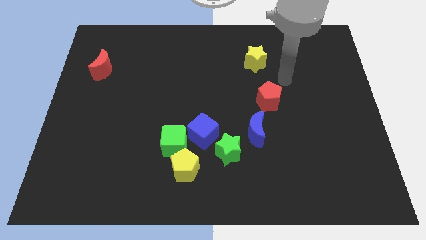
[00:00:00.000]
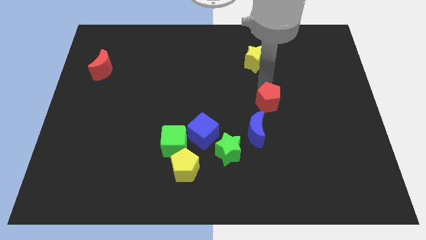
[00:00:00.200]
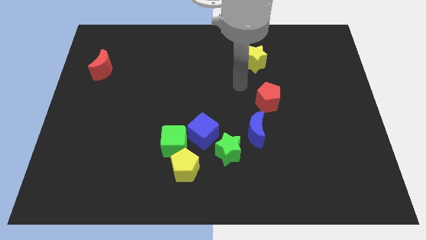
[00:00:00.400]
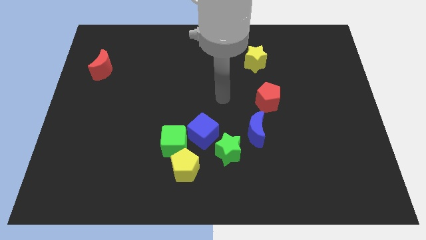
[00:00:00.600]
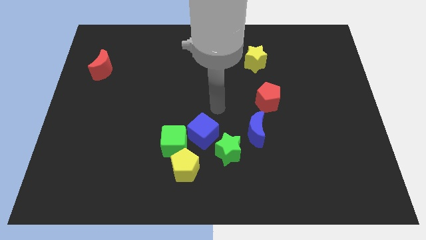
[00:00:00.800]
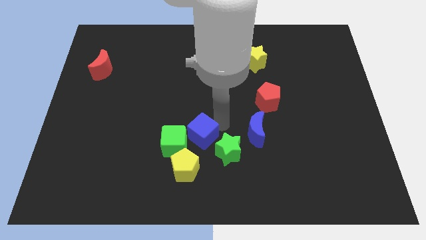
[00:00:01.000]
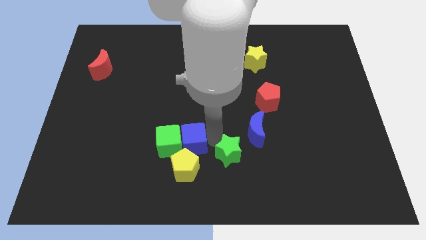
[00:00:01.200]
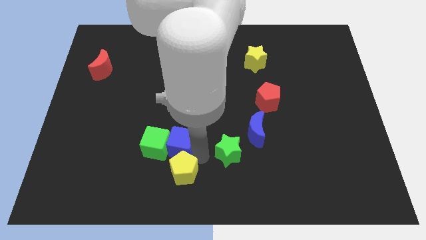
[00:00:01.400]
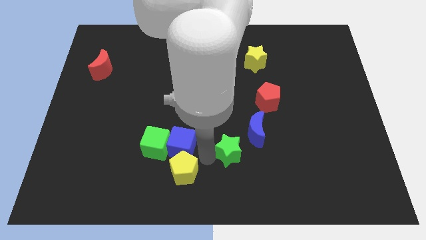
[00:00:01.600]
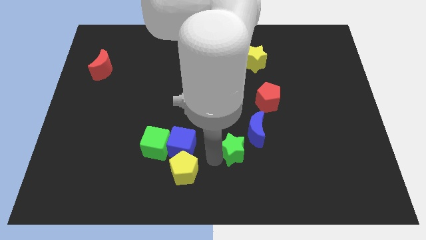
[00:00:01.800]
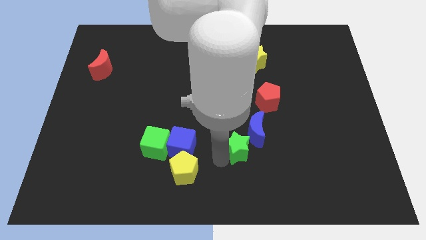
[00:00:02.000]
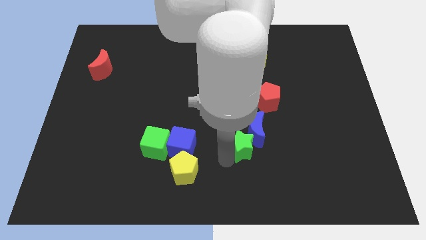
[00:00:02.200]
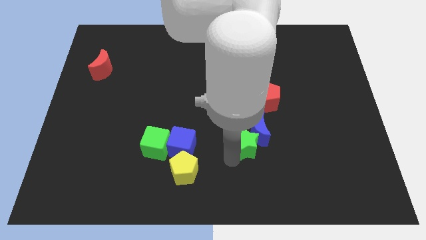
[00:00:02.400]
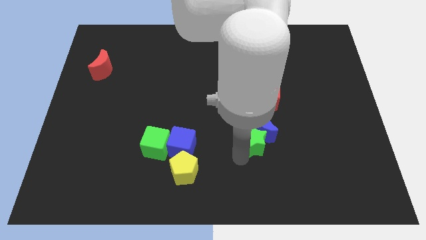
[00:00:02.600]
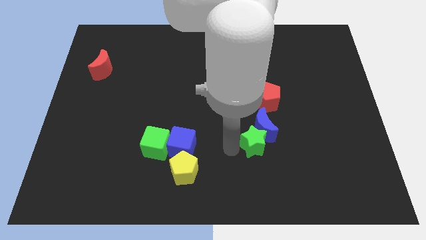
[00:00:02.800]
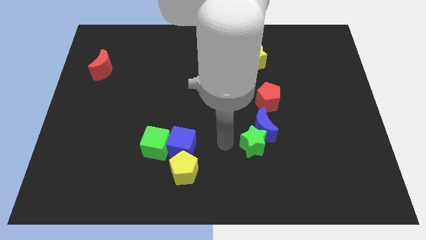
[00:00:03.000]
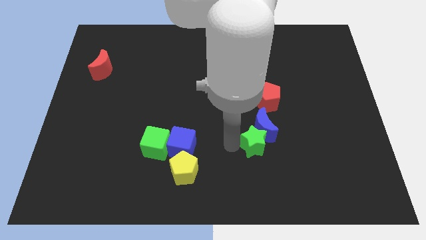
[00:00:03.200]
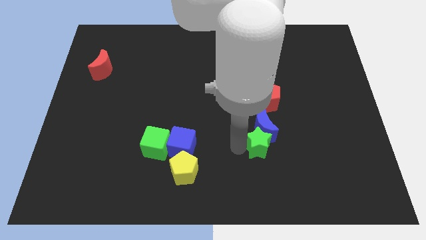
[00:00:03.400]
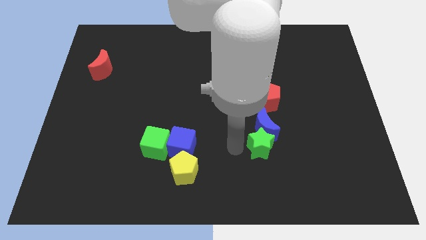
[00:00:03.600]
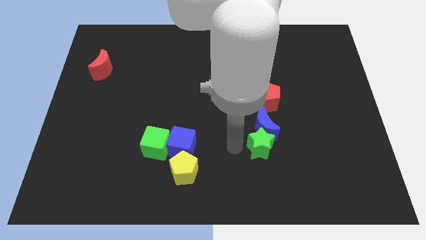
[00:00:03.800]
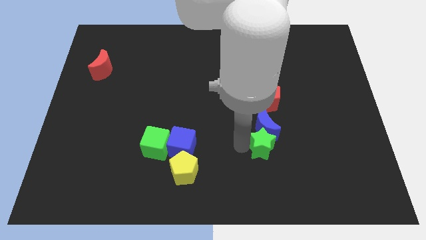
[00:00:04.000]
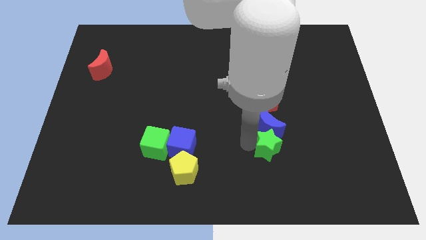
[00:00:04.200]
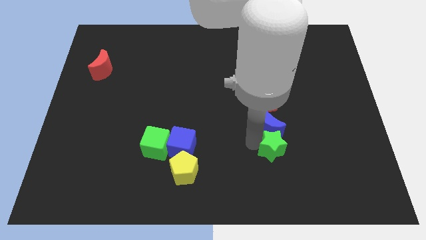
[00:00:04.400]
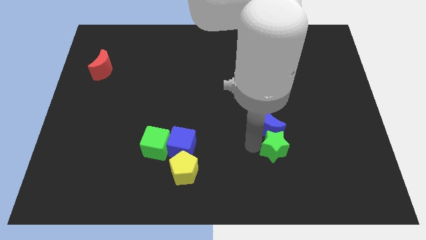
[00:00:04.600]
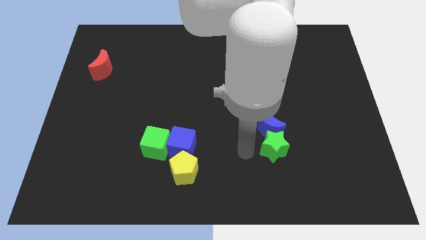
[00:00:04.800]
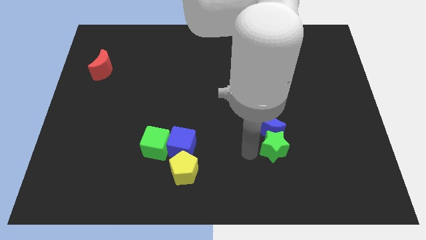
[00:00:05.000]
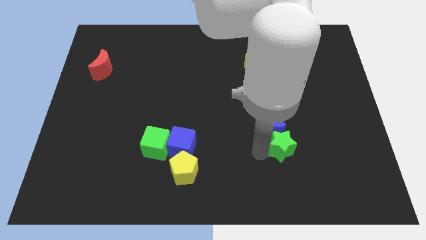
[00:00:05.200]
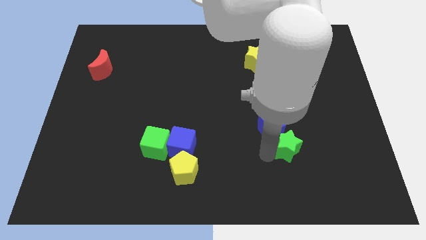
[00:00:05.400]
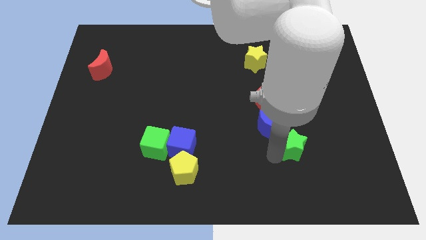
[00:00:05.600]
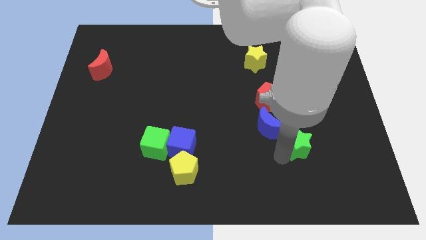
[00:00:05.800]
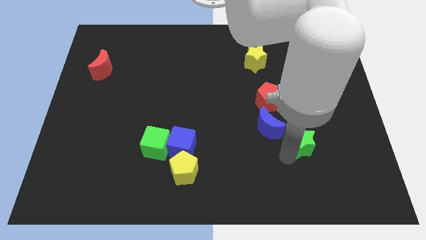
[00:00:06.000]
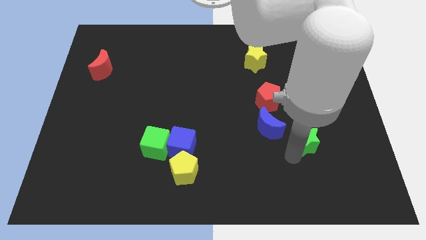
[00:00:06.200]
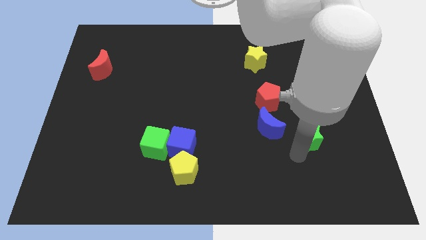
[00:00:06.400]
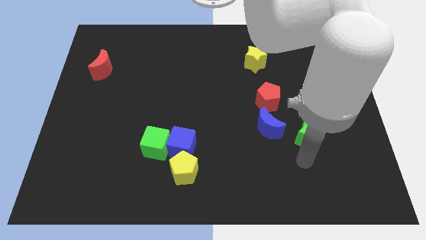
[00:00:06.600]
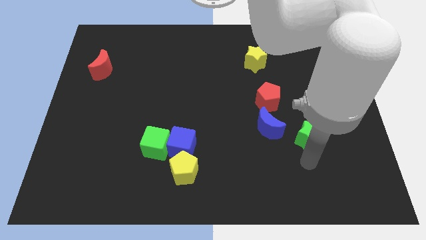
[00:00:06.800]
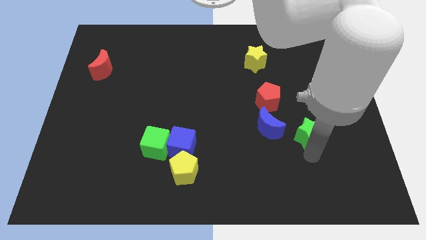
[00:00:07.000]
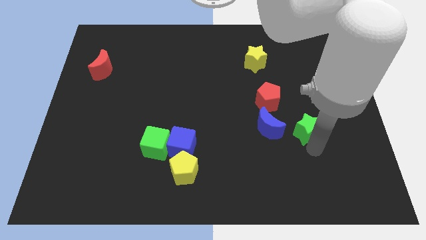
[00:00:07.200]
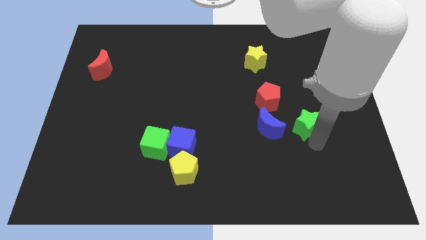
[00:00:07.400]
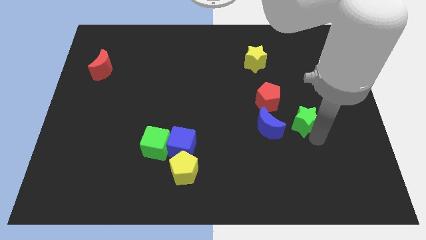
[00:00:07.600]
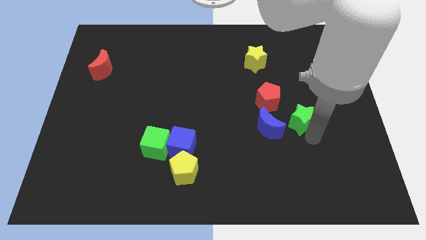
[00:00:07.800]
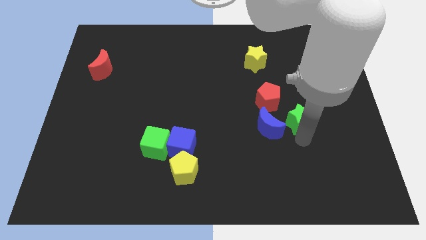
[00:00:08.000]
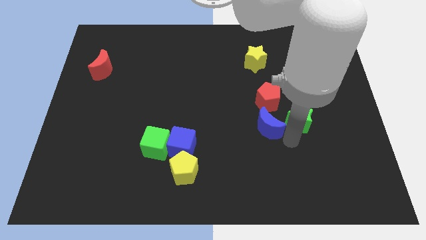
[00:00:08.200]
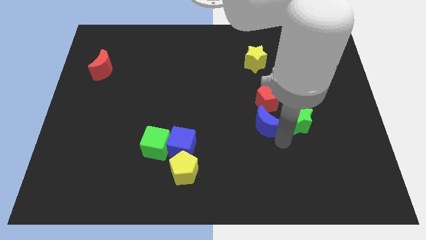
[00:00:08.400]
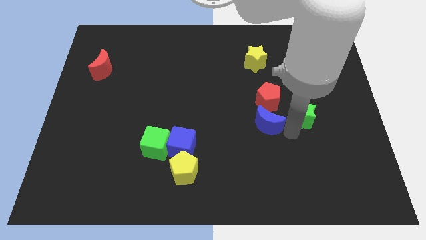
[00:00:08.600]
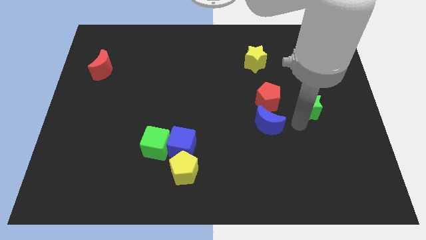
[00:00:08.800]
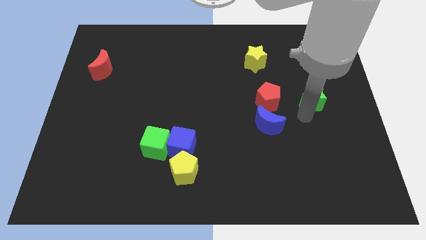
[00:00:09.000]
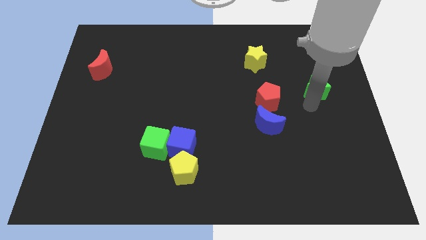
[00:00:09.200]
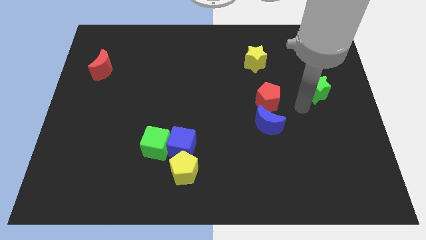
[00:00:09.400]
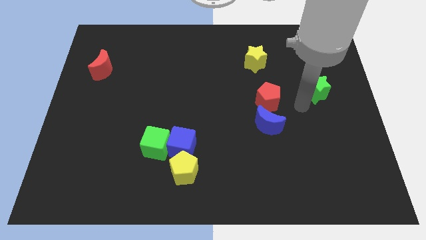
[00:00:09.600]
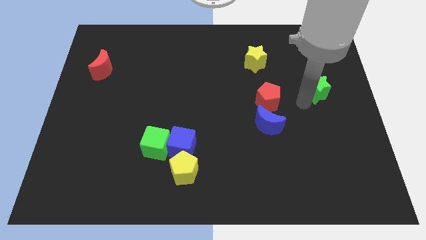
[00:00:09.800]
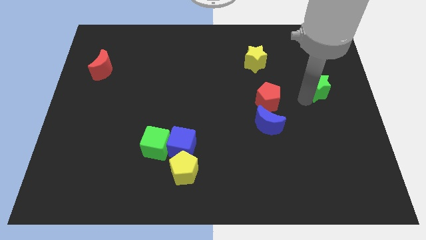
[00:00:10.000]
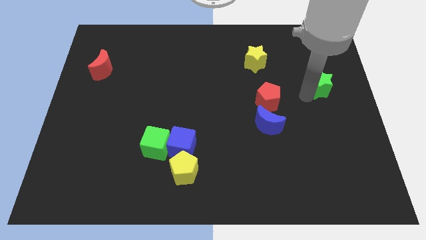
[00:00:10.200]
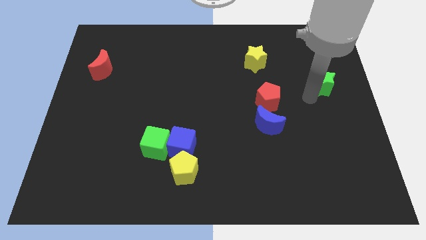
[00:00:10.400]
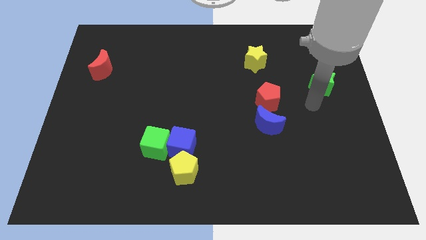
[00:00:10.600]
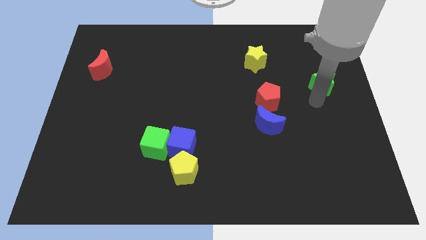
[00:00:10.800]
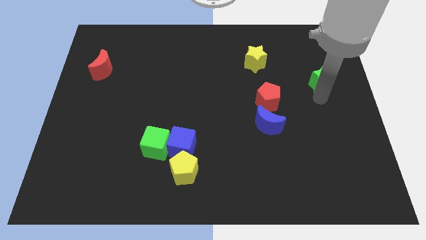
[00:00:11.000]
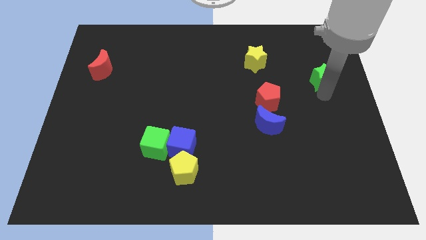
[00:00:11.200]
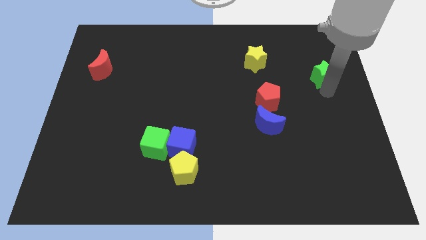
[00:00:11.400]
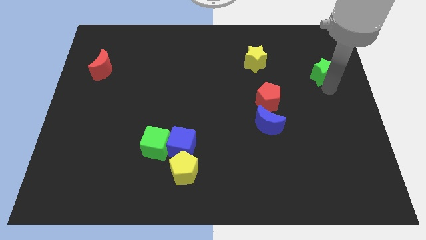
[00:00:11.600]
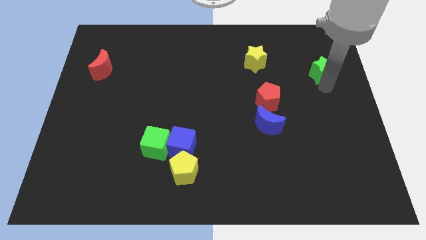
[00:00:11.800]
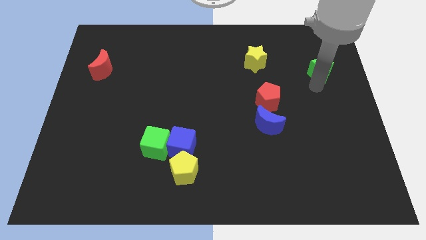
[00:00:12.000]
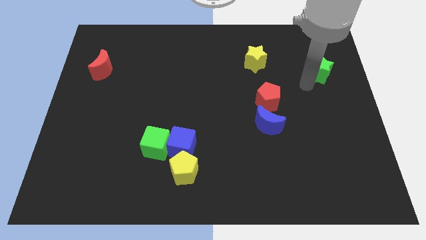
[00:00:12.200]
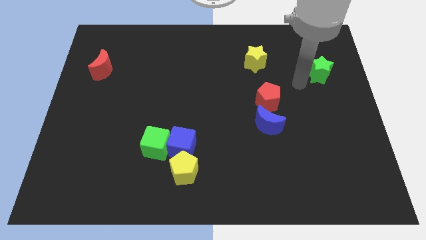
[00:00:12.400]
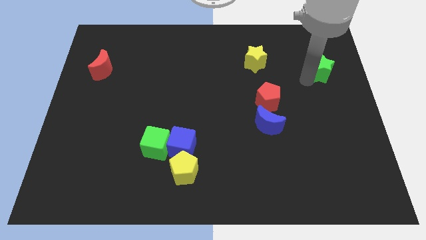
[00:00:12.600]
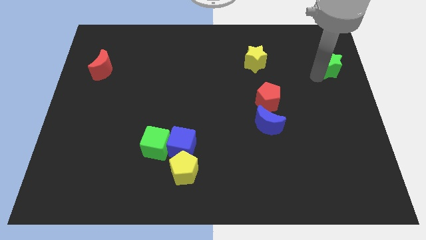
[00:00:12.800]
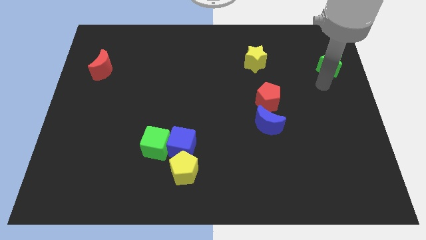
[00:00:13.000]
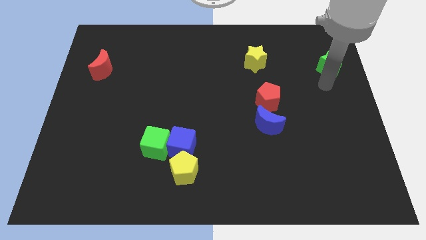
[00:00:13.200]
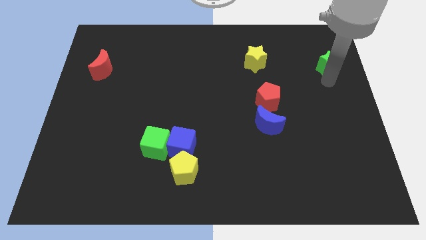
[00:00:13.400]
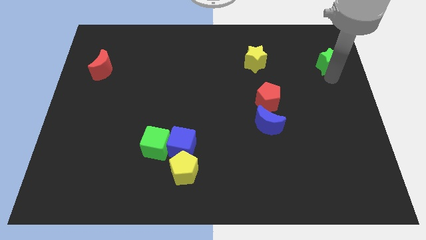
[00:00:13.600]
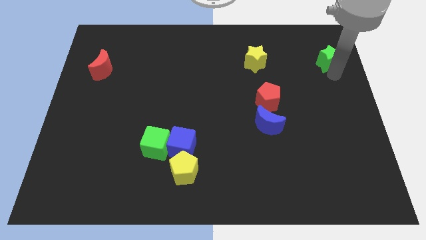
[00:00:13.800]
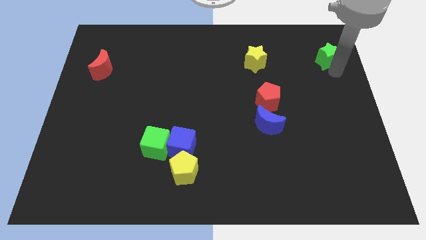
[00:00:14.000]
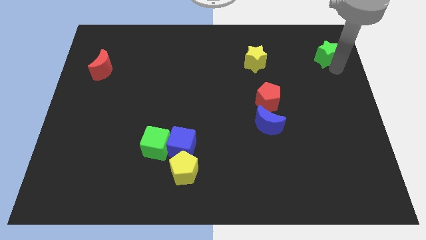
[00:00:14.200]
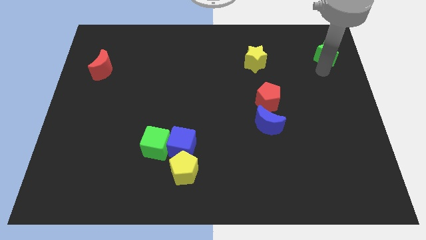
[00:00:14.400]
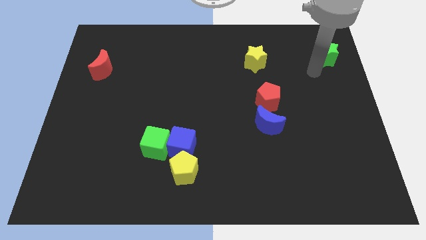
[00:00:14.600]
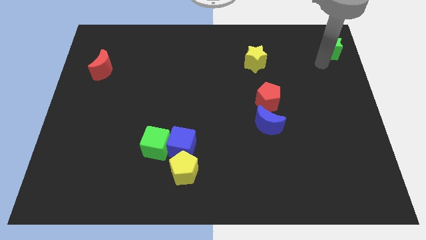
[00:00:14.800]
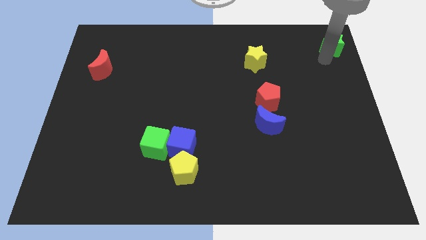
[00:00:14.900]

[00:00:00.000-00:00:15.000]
put the green star to the top right corner
